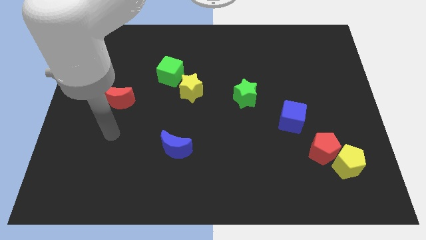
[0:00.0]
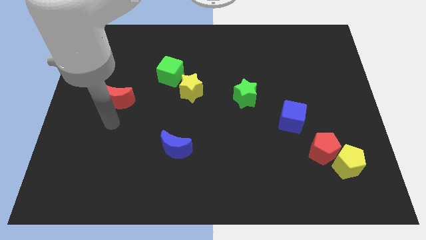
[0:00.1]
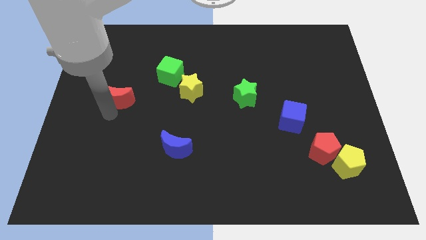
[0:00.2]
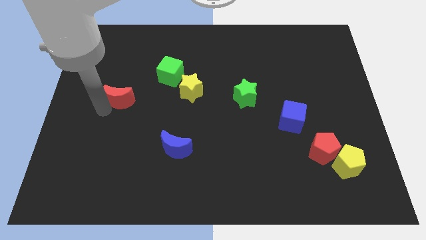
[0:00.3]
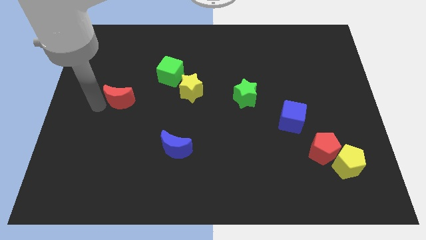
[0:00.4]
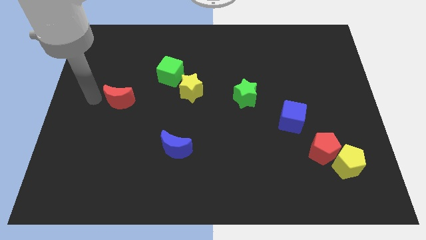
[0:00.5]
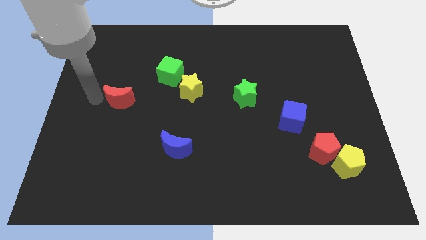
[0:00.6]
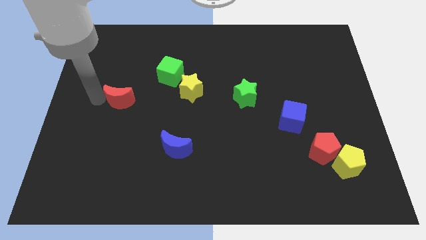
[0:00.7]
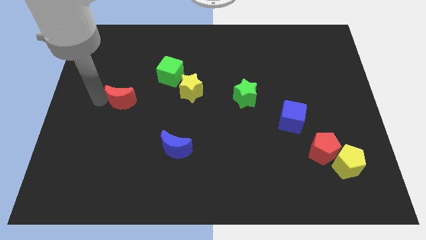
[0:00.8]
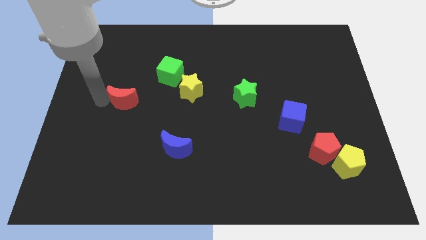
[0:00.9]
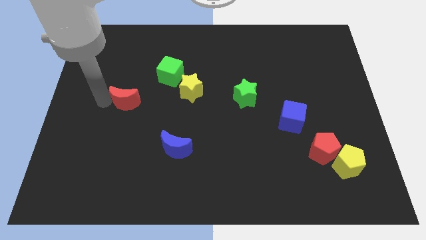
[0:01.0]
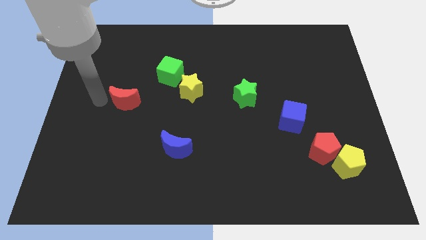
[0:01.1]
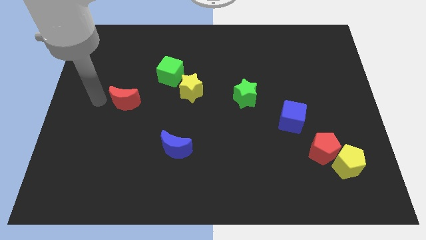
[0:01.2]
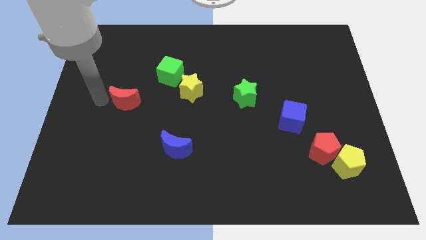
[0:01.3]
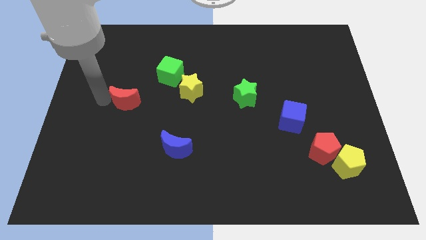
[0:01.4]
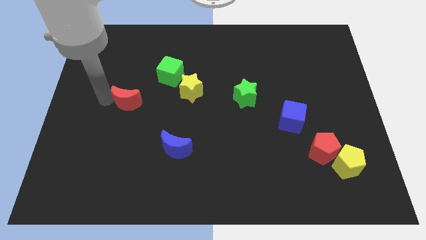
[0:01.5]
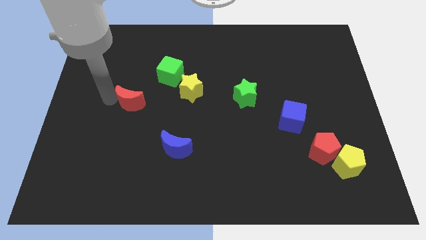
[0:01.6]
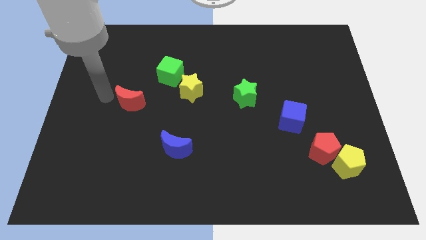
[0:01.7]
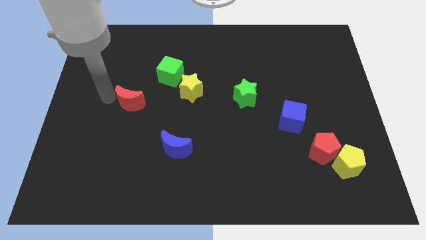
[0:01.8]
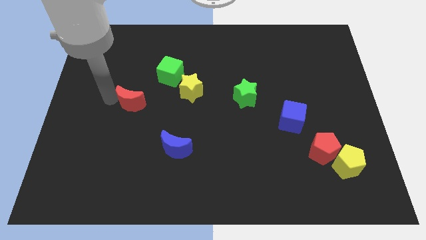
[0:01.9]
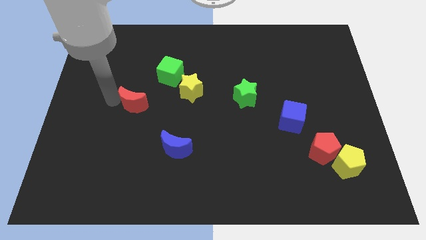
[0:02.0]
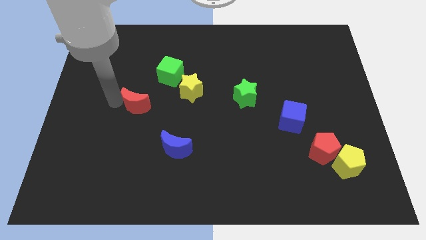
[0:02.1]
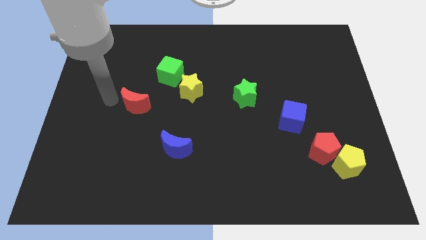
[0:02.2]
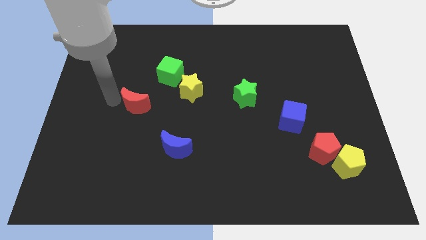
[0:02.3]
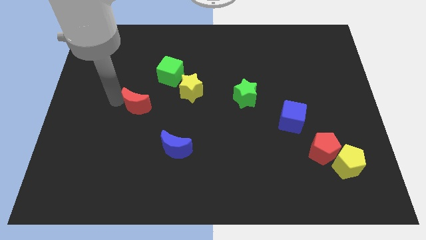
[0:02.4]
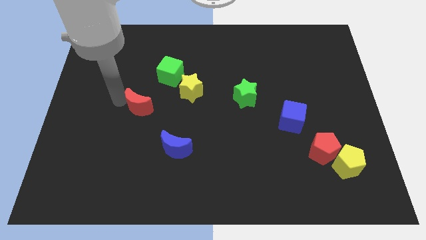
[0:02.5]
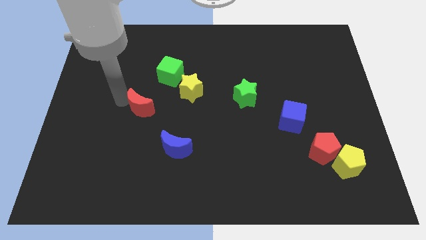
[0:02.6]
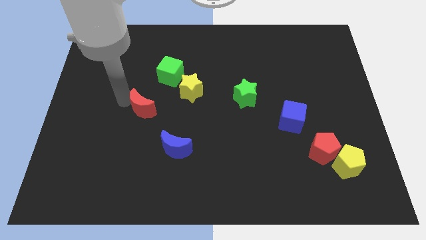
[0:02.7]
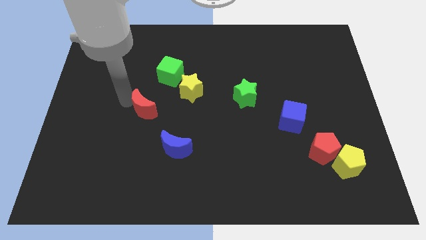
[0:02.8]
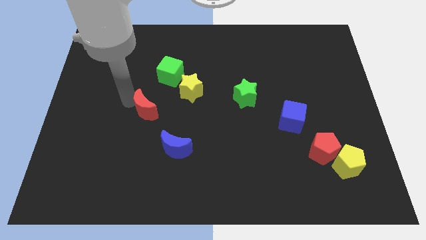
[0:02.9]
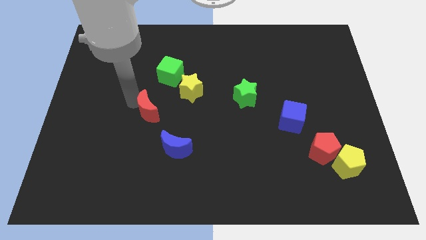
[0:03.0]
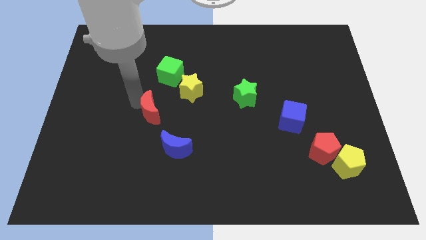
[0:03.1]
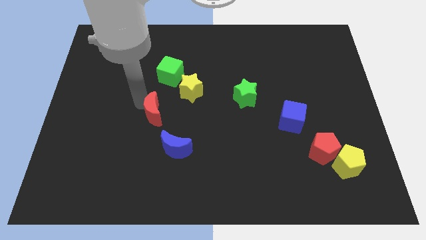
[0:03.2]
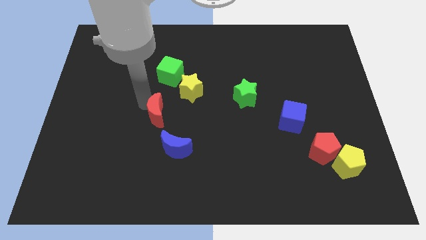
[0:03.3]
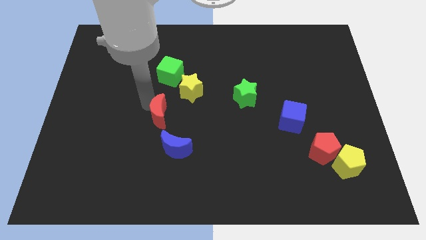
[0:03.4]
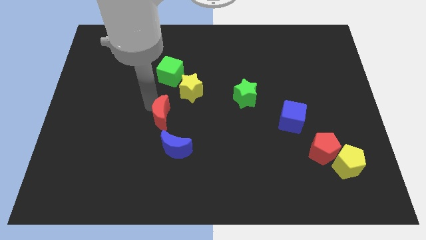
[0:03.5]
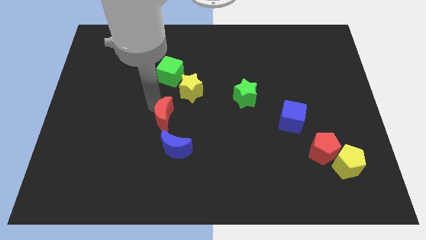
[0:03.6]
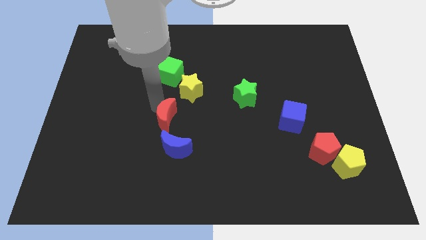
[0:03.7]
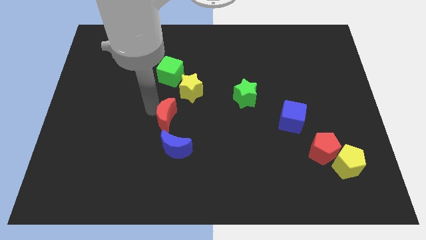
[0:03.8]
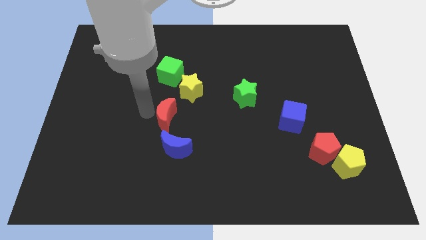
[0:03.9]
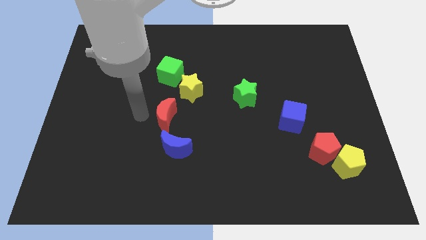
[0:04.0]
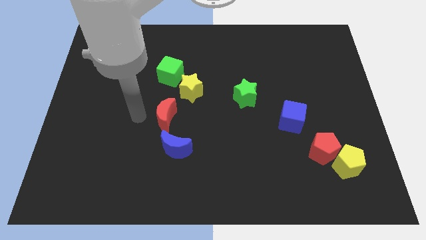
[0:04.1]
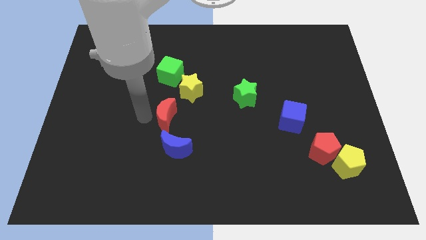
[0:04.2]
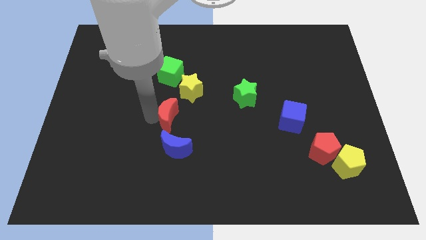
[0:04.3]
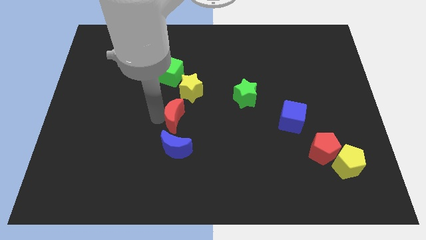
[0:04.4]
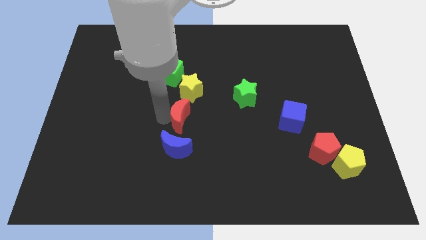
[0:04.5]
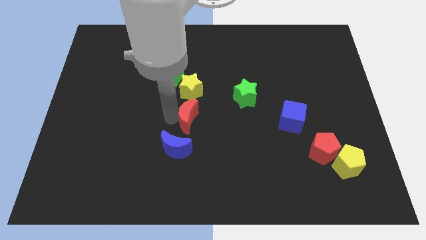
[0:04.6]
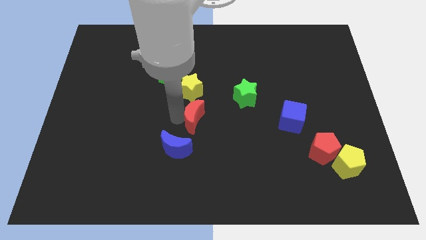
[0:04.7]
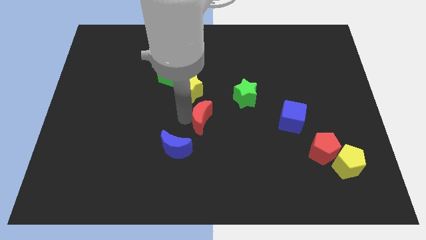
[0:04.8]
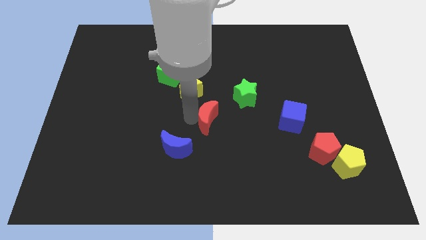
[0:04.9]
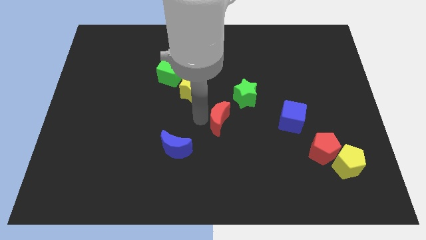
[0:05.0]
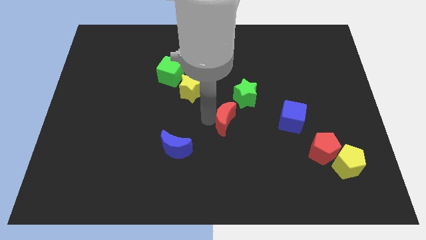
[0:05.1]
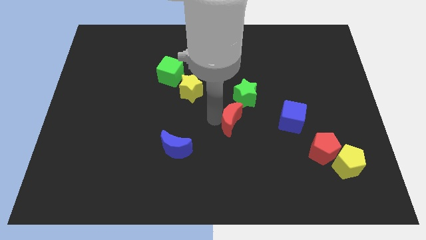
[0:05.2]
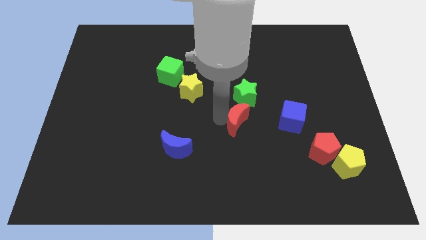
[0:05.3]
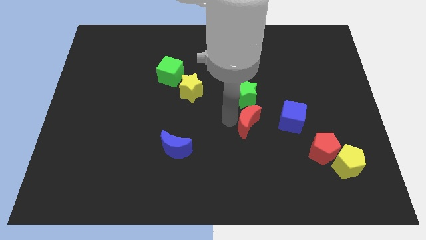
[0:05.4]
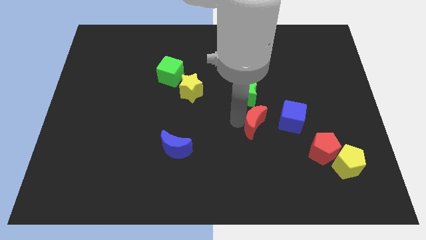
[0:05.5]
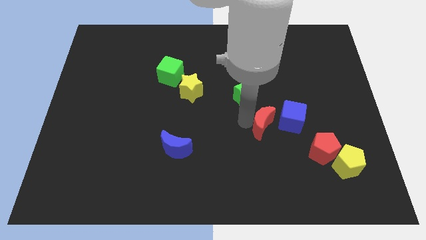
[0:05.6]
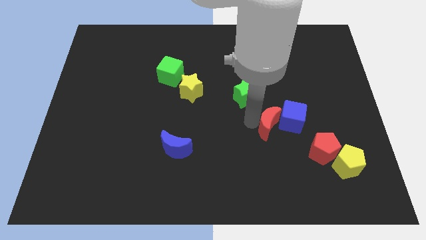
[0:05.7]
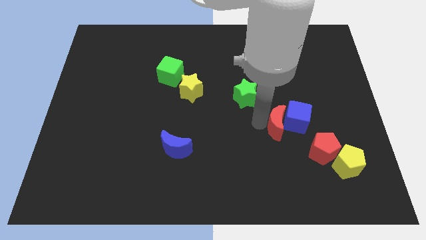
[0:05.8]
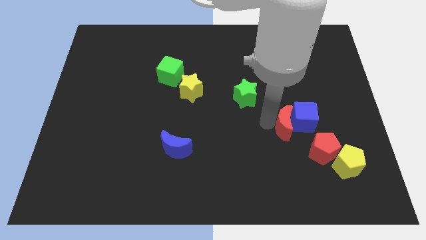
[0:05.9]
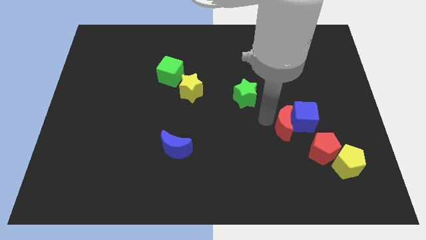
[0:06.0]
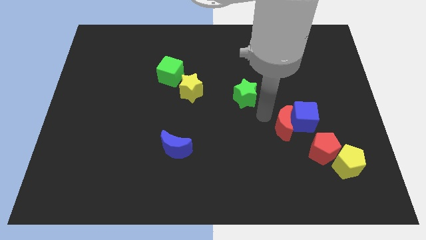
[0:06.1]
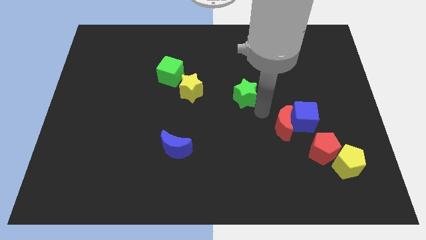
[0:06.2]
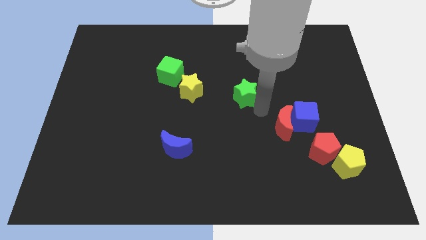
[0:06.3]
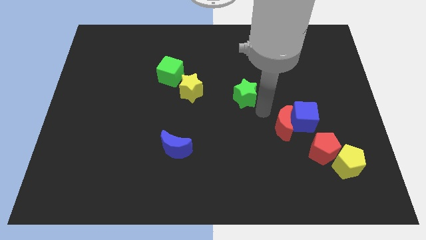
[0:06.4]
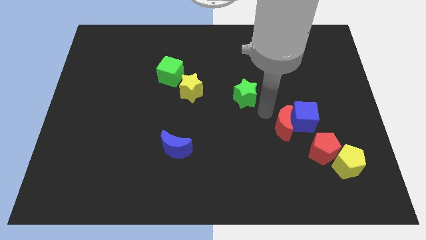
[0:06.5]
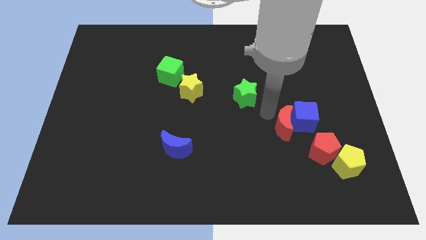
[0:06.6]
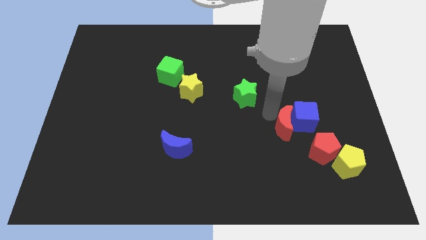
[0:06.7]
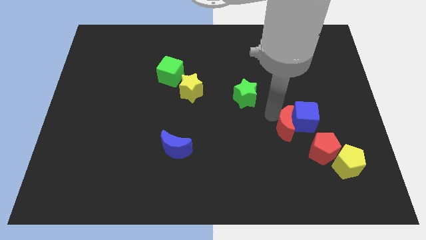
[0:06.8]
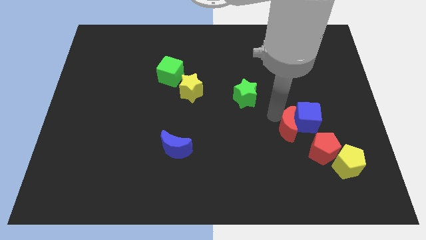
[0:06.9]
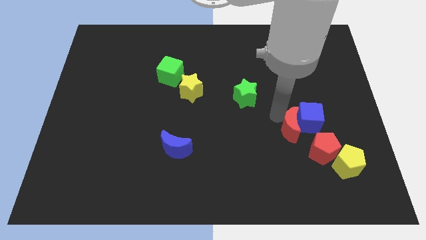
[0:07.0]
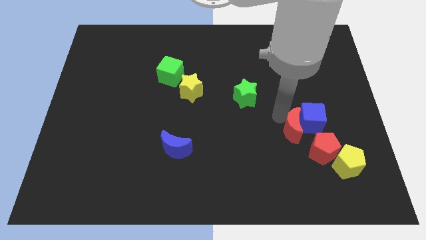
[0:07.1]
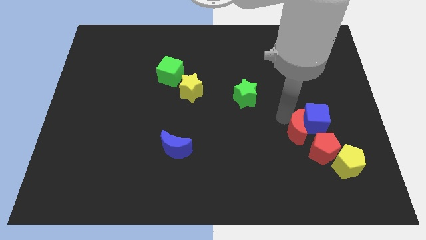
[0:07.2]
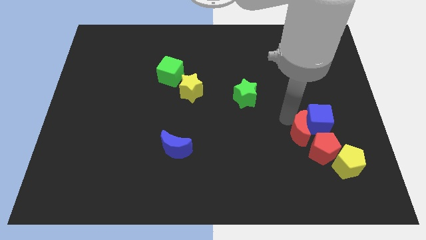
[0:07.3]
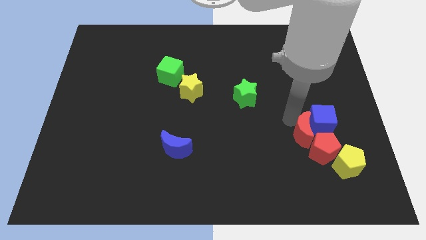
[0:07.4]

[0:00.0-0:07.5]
move the red moon close to the red pentagon

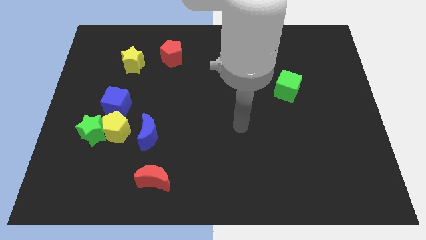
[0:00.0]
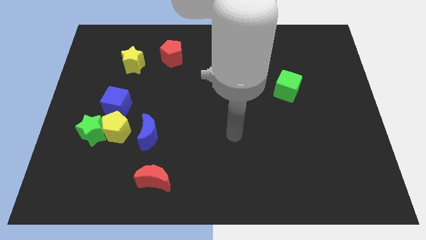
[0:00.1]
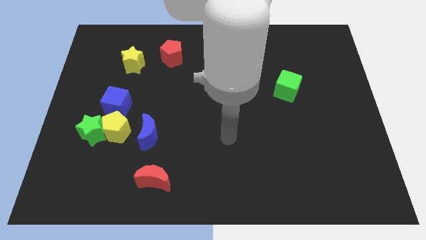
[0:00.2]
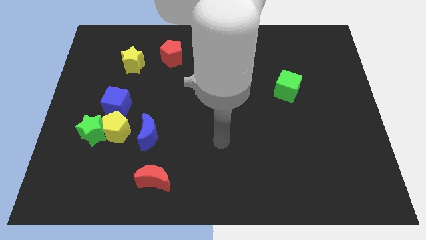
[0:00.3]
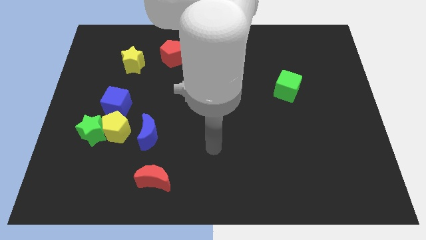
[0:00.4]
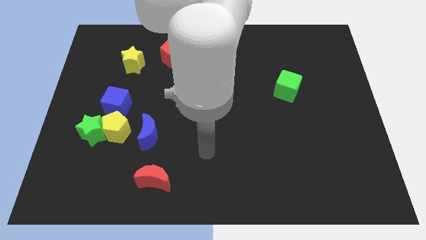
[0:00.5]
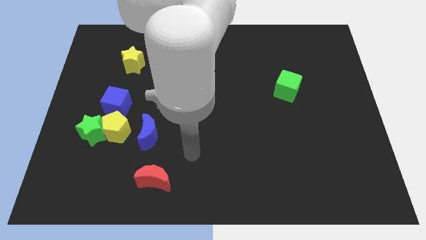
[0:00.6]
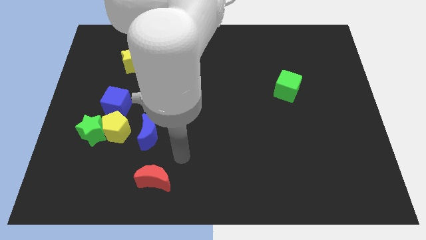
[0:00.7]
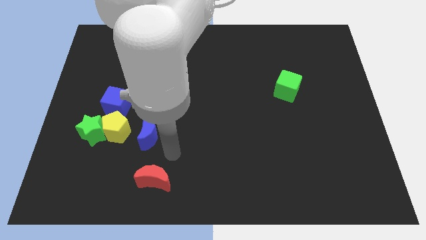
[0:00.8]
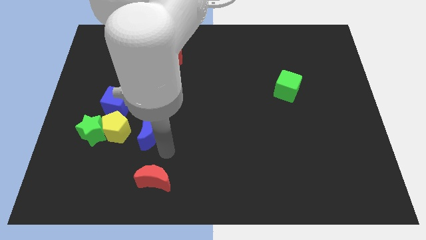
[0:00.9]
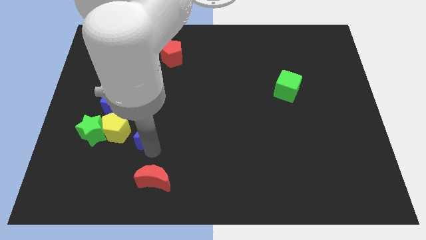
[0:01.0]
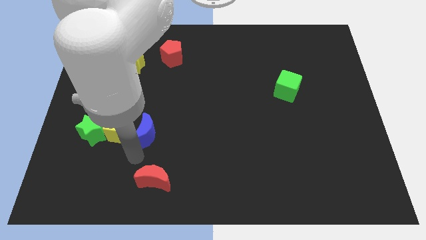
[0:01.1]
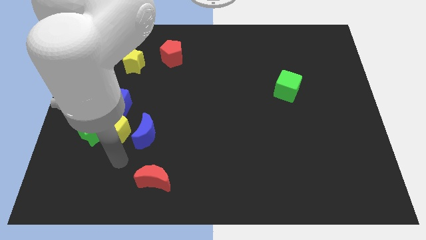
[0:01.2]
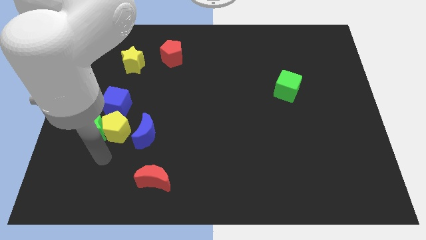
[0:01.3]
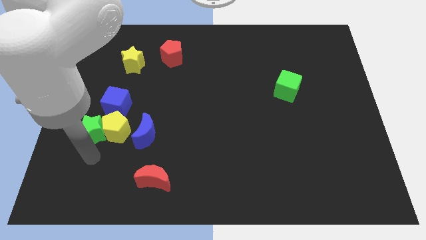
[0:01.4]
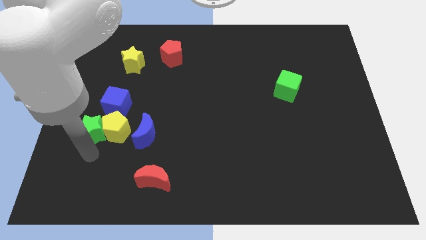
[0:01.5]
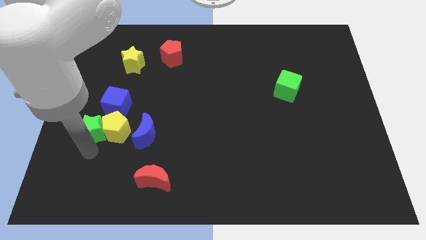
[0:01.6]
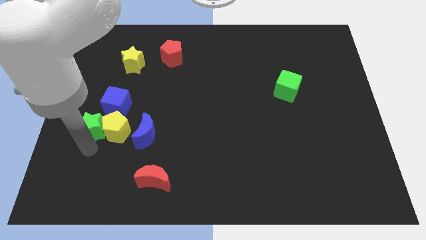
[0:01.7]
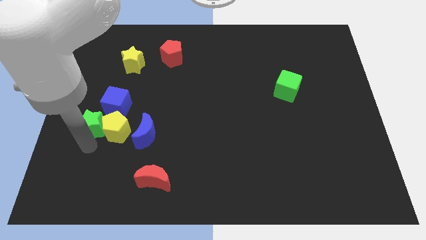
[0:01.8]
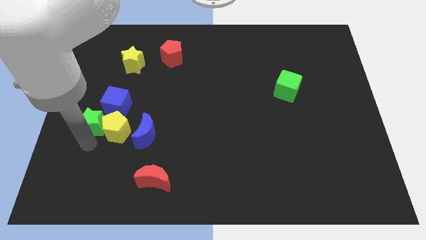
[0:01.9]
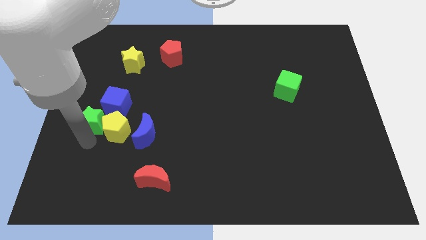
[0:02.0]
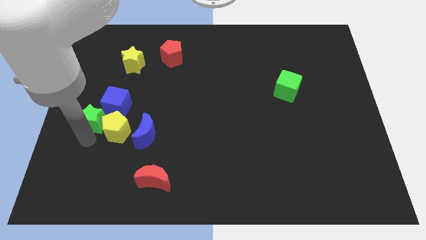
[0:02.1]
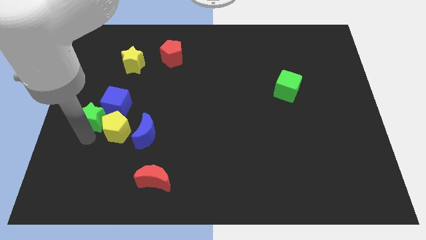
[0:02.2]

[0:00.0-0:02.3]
move the green star towards the blue cube
